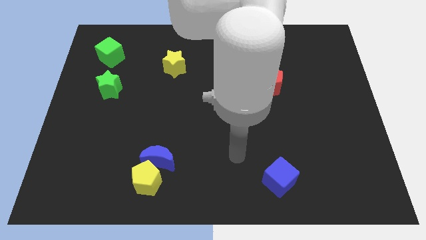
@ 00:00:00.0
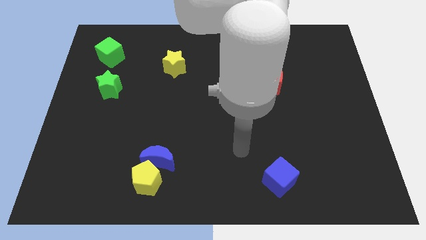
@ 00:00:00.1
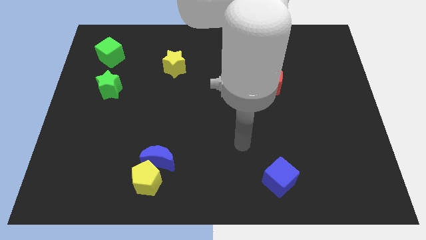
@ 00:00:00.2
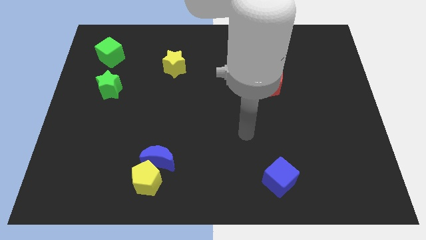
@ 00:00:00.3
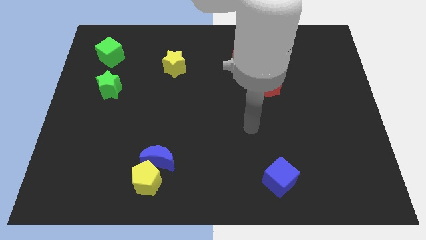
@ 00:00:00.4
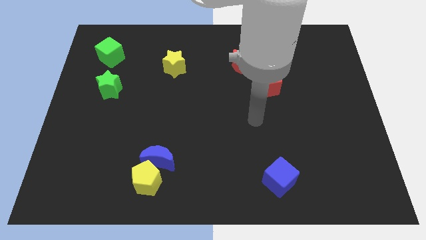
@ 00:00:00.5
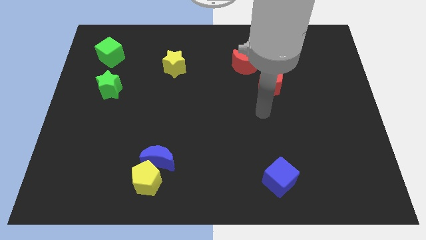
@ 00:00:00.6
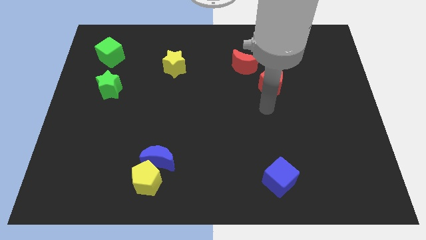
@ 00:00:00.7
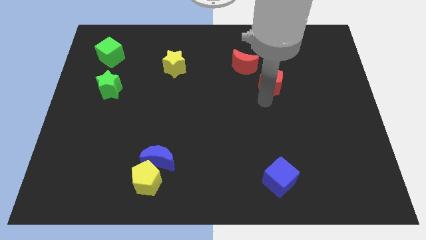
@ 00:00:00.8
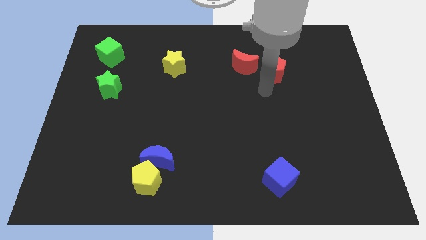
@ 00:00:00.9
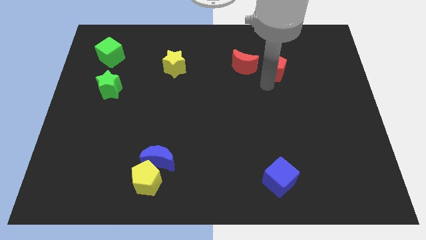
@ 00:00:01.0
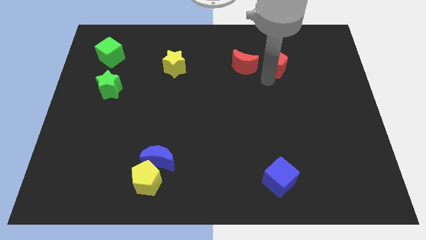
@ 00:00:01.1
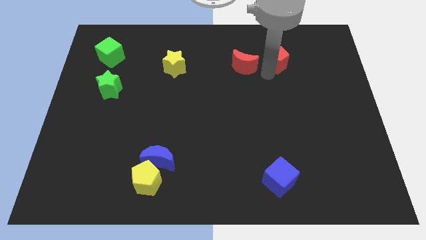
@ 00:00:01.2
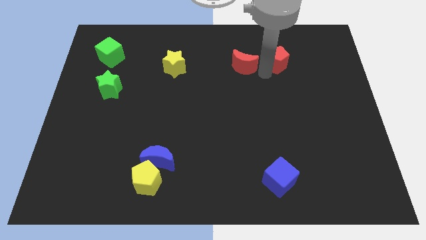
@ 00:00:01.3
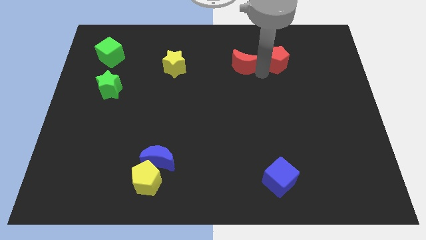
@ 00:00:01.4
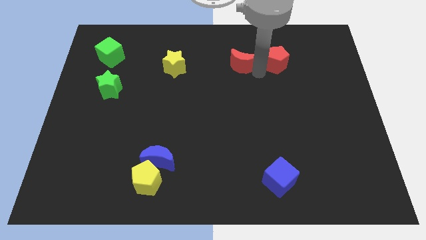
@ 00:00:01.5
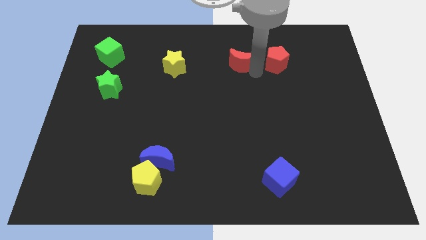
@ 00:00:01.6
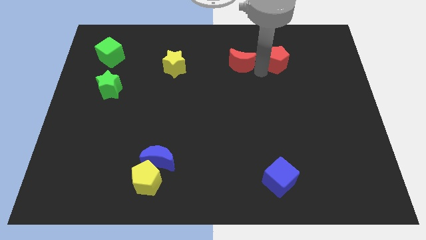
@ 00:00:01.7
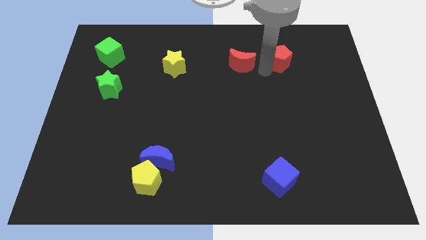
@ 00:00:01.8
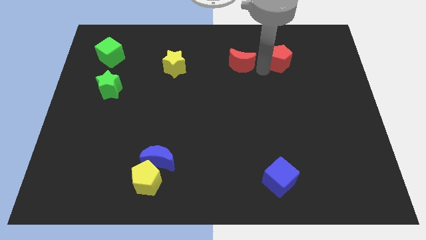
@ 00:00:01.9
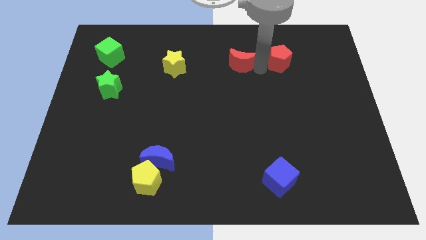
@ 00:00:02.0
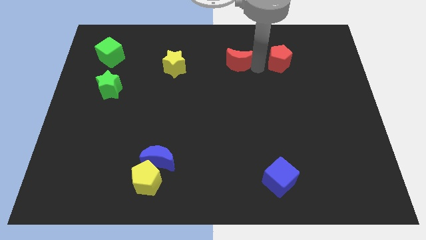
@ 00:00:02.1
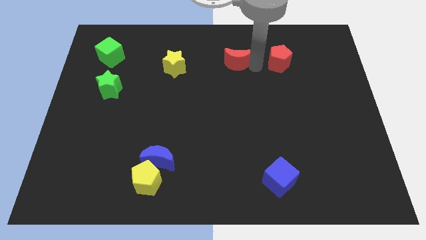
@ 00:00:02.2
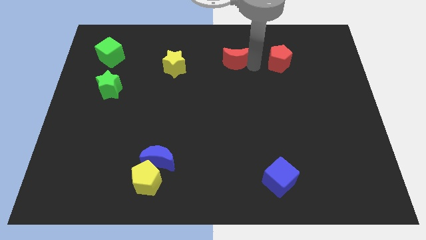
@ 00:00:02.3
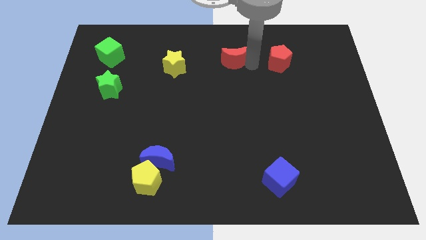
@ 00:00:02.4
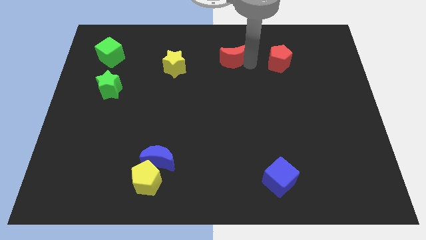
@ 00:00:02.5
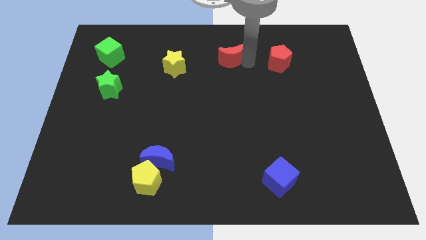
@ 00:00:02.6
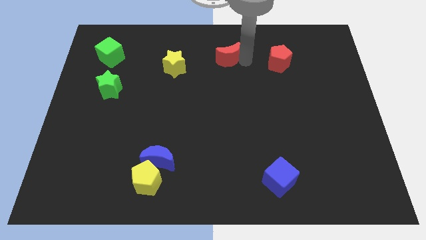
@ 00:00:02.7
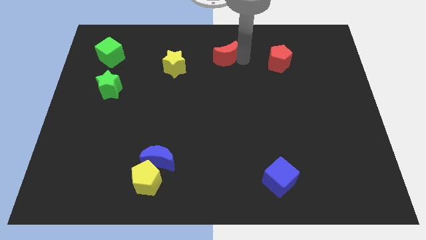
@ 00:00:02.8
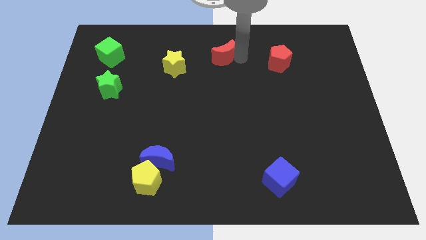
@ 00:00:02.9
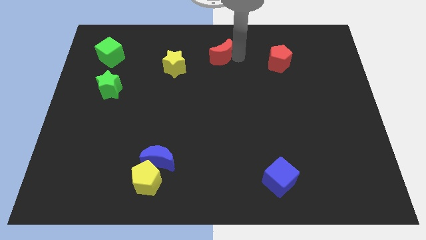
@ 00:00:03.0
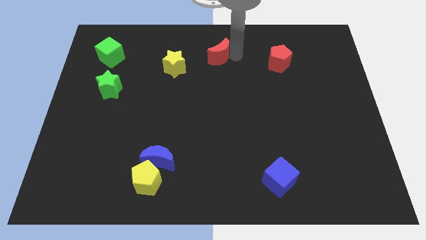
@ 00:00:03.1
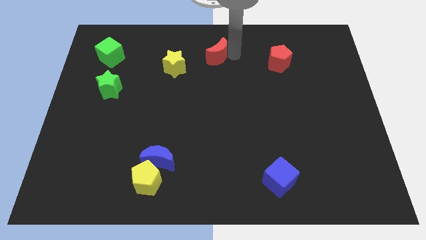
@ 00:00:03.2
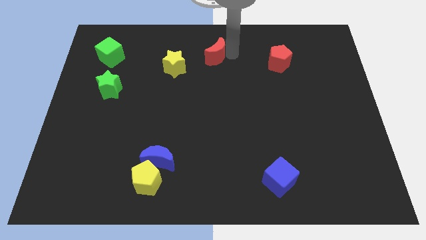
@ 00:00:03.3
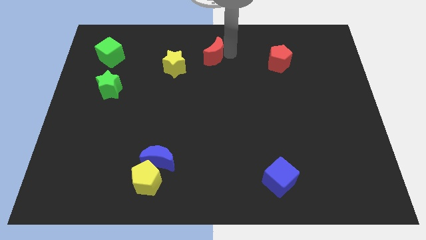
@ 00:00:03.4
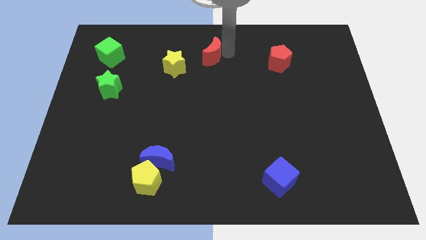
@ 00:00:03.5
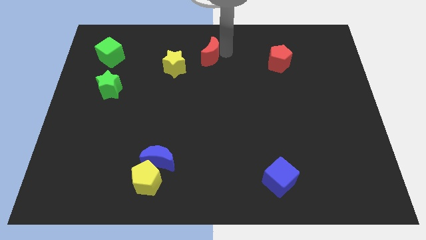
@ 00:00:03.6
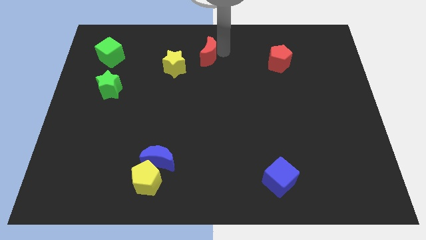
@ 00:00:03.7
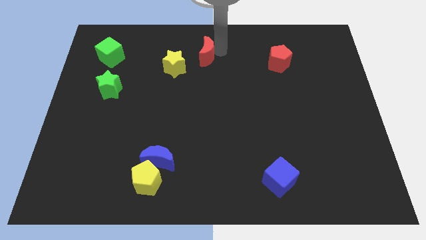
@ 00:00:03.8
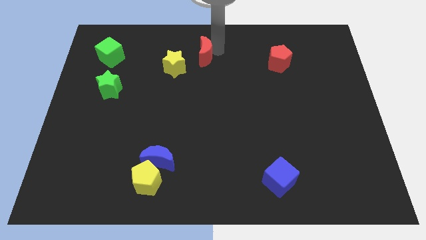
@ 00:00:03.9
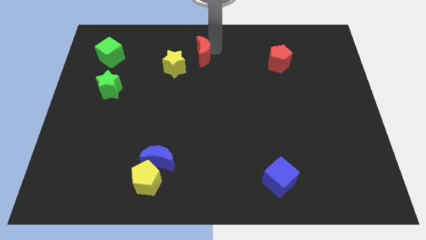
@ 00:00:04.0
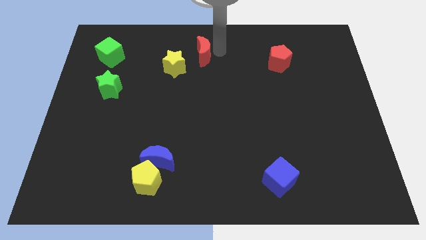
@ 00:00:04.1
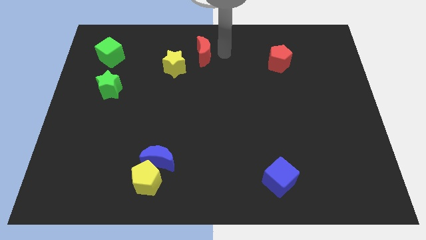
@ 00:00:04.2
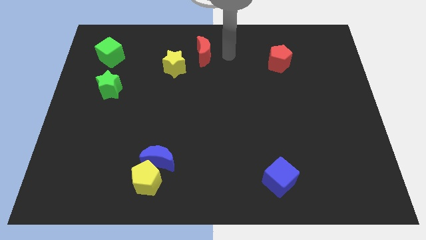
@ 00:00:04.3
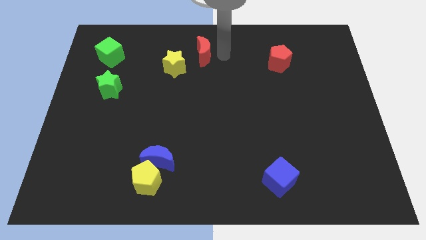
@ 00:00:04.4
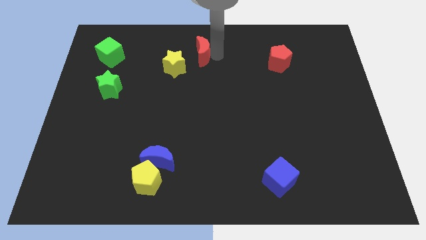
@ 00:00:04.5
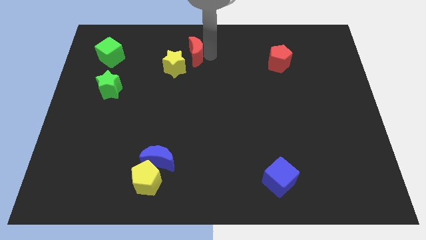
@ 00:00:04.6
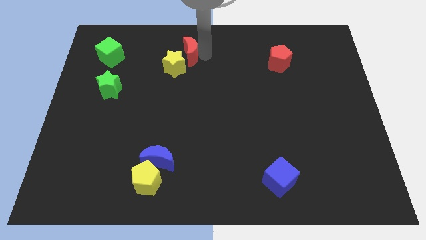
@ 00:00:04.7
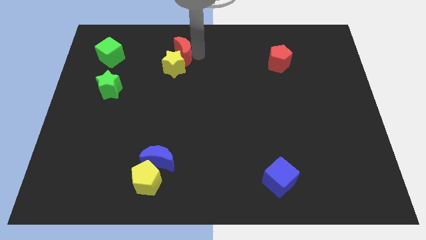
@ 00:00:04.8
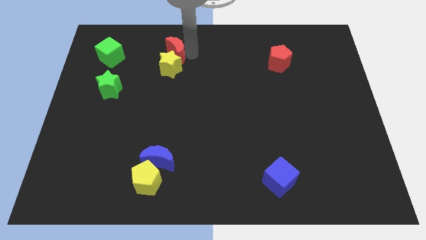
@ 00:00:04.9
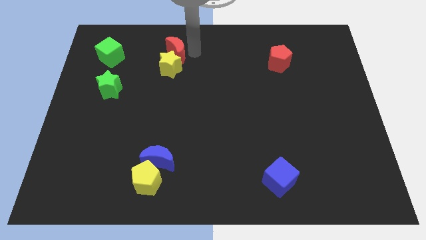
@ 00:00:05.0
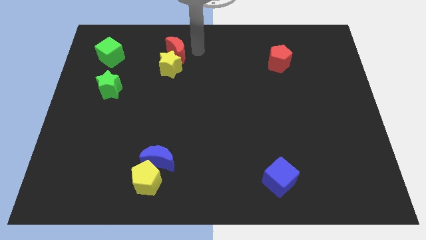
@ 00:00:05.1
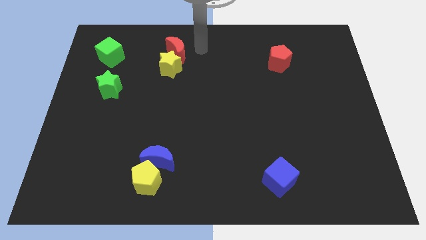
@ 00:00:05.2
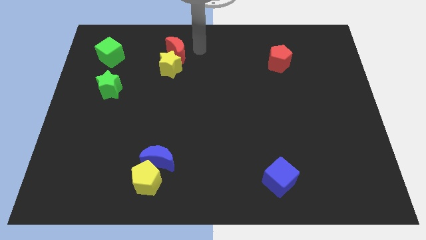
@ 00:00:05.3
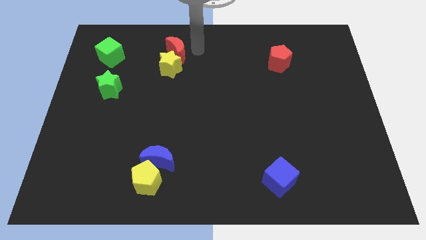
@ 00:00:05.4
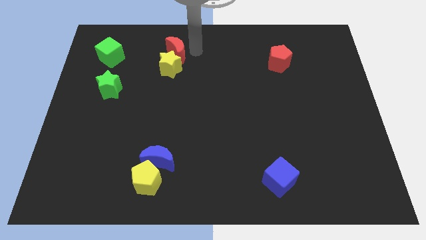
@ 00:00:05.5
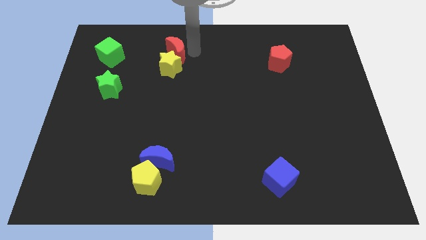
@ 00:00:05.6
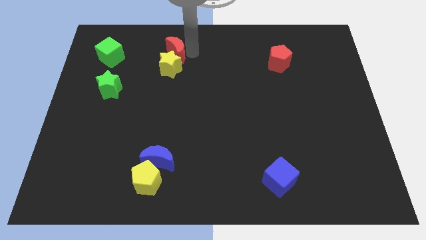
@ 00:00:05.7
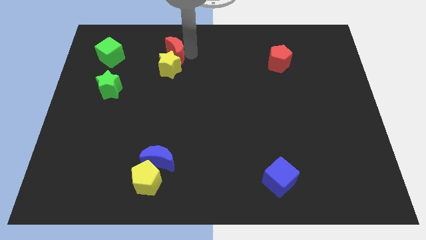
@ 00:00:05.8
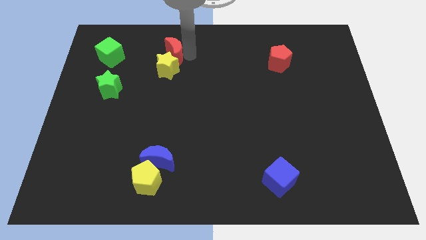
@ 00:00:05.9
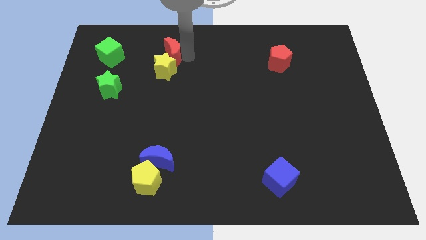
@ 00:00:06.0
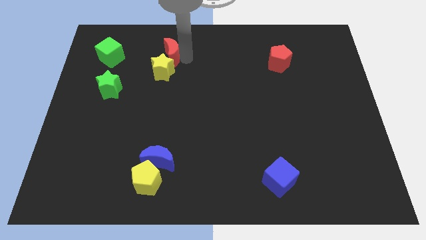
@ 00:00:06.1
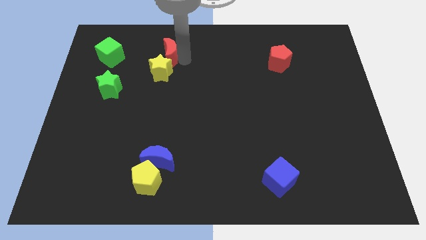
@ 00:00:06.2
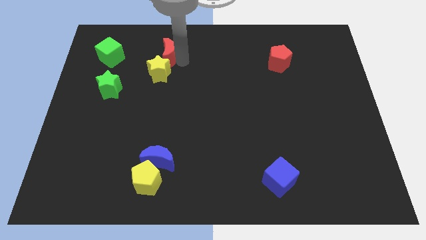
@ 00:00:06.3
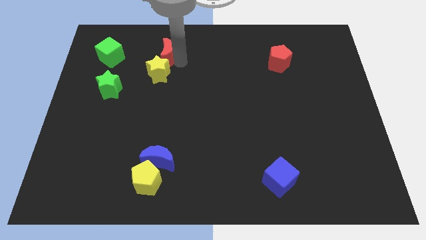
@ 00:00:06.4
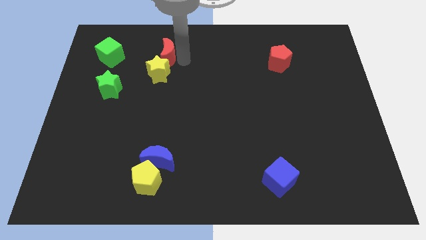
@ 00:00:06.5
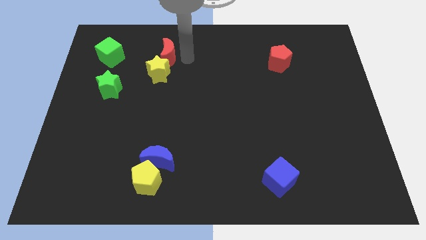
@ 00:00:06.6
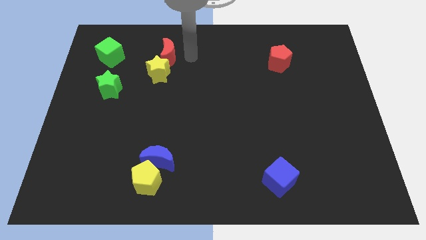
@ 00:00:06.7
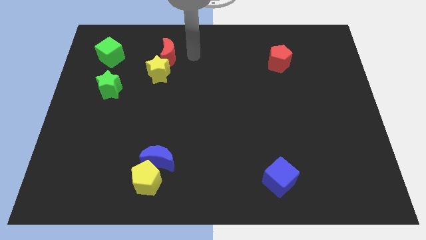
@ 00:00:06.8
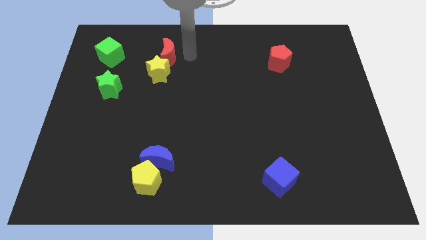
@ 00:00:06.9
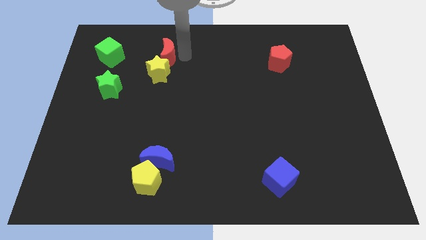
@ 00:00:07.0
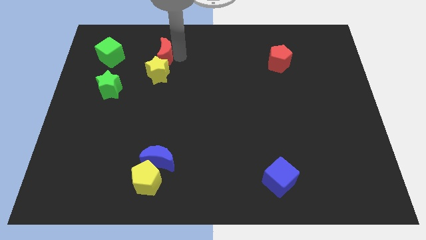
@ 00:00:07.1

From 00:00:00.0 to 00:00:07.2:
push the red moon left

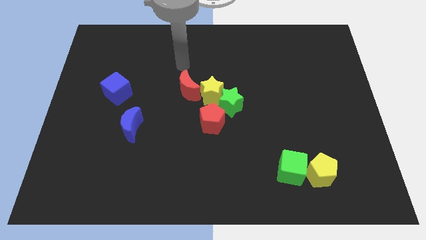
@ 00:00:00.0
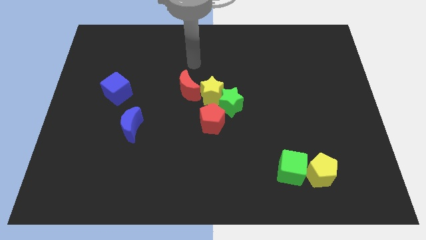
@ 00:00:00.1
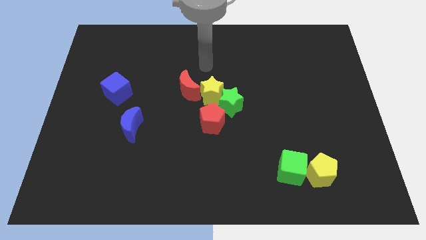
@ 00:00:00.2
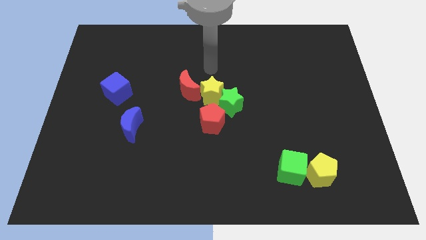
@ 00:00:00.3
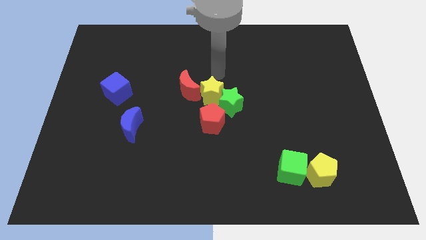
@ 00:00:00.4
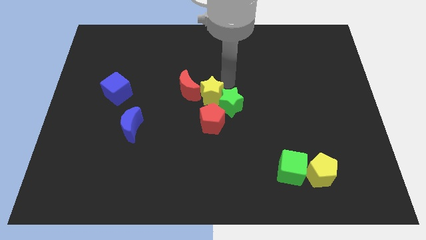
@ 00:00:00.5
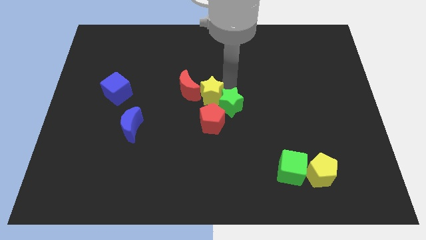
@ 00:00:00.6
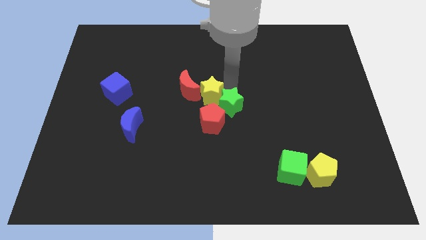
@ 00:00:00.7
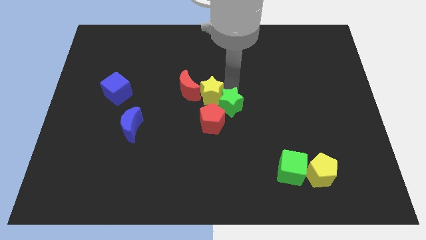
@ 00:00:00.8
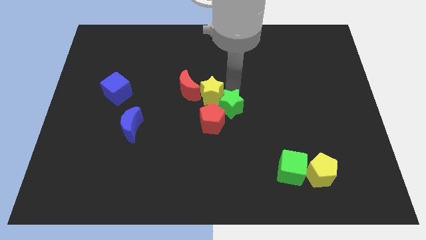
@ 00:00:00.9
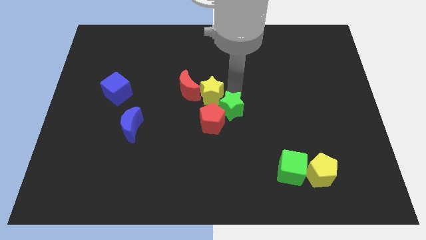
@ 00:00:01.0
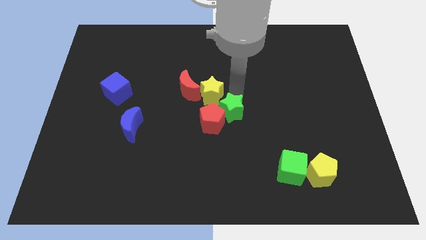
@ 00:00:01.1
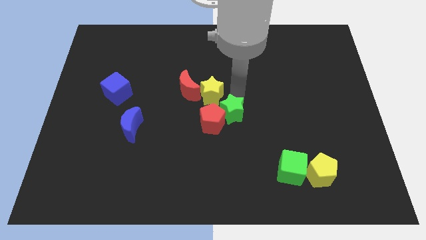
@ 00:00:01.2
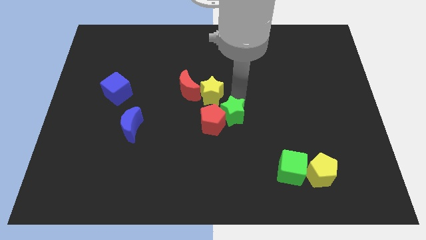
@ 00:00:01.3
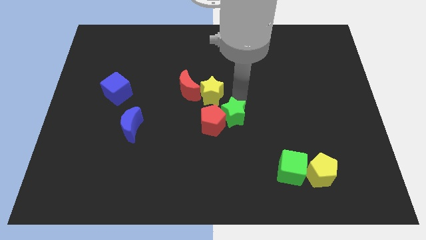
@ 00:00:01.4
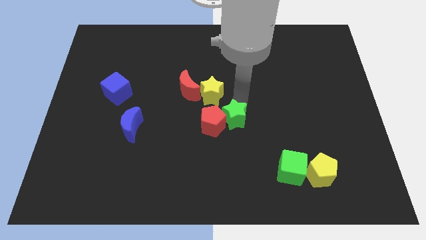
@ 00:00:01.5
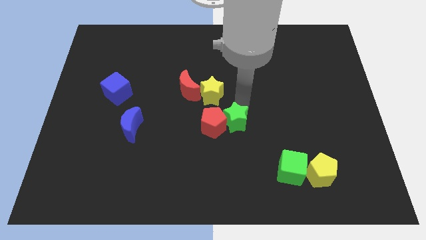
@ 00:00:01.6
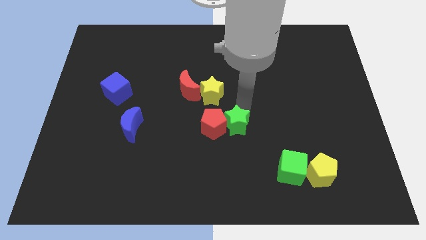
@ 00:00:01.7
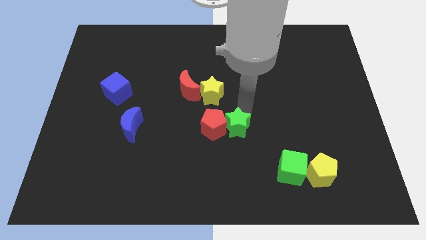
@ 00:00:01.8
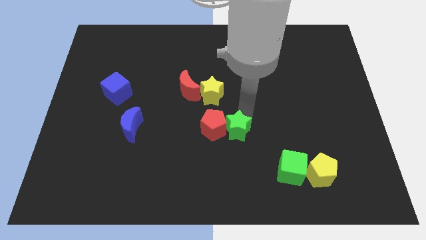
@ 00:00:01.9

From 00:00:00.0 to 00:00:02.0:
push the green star downwards slightly
